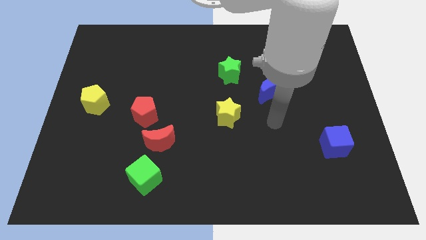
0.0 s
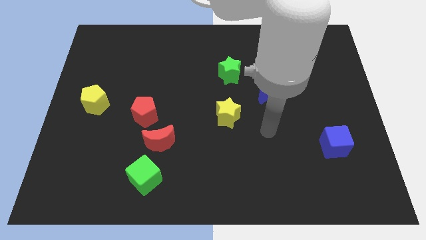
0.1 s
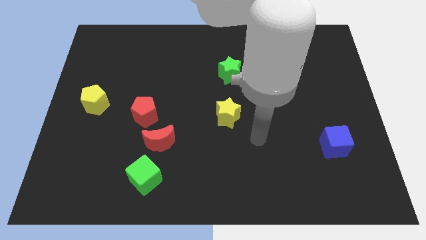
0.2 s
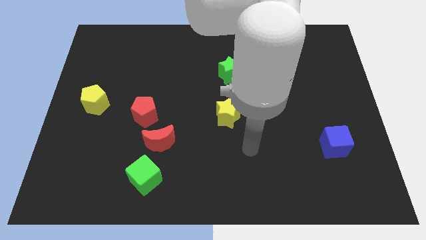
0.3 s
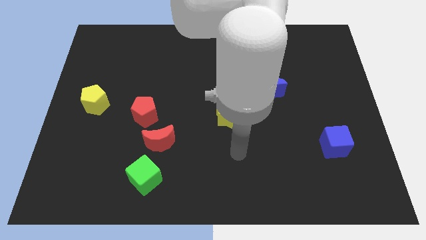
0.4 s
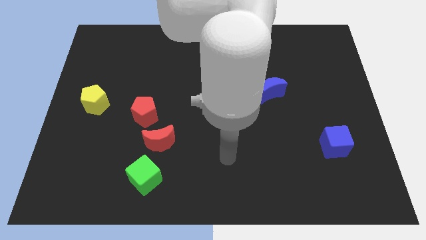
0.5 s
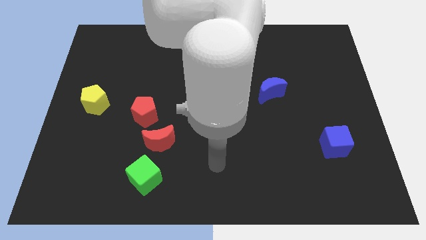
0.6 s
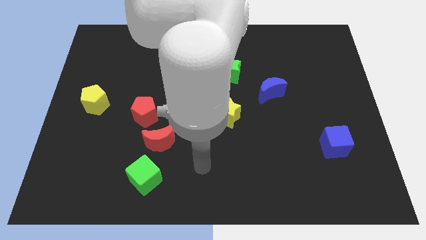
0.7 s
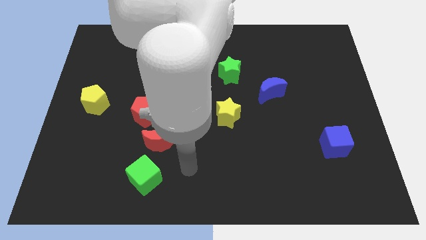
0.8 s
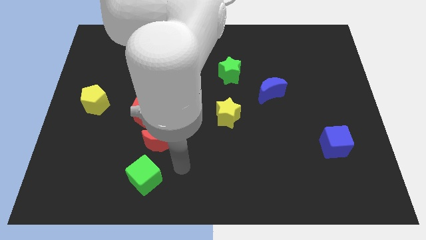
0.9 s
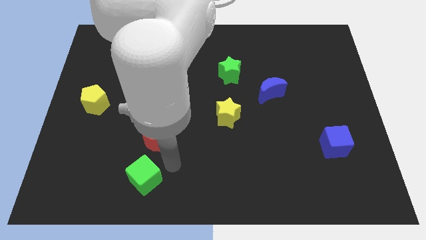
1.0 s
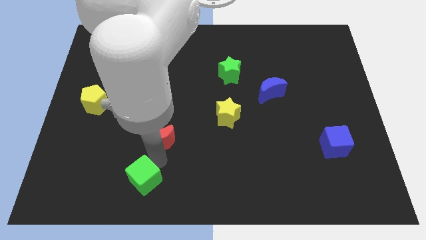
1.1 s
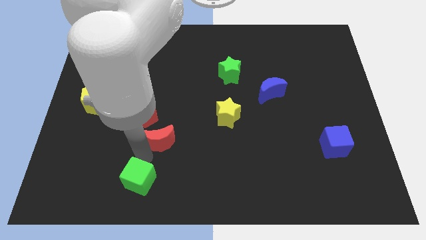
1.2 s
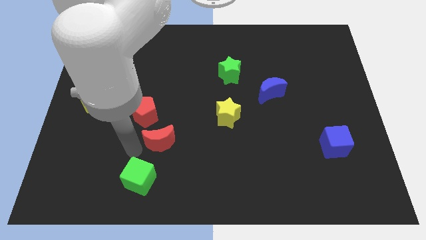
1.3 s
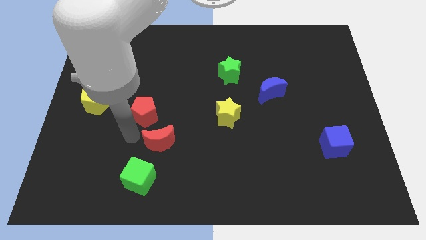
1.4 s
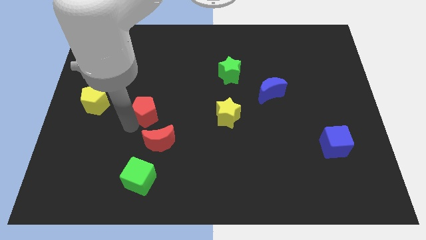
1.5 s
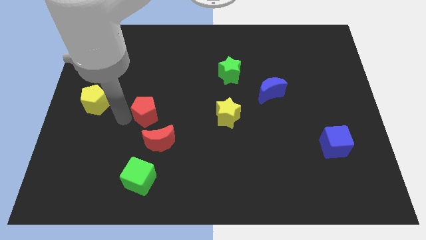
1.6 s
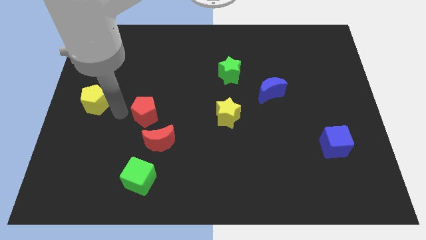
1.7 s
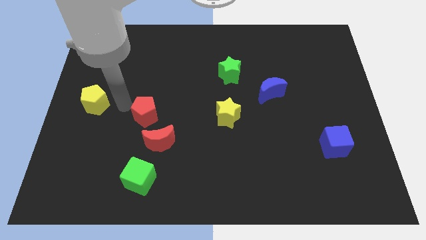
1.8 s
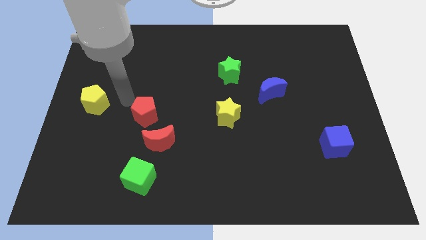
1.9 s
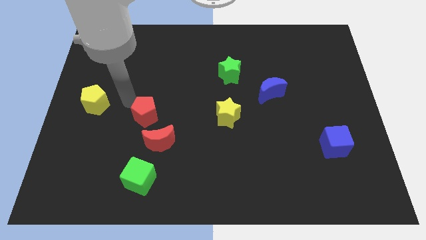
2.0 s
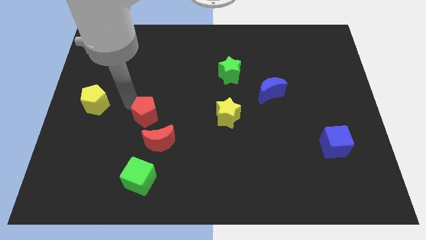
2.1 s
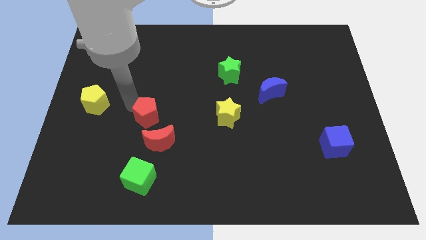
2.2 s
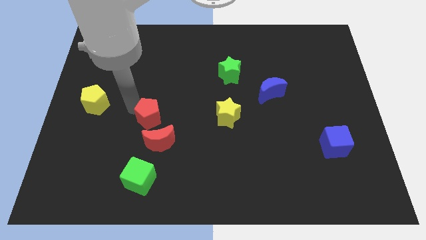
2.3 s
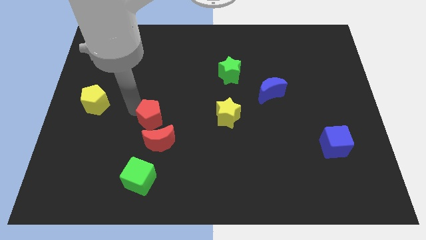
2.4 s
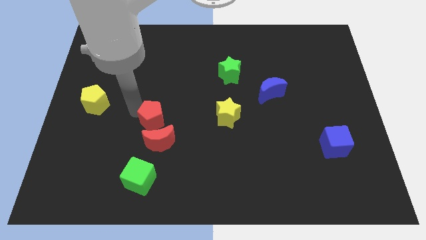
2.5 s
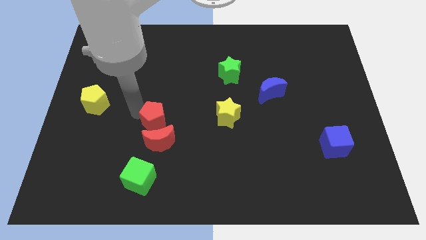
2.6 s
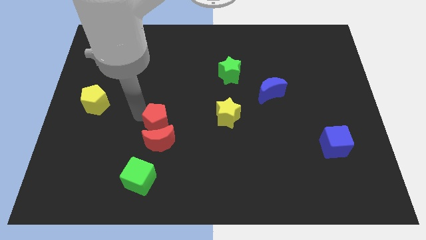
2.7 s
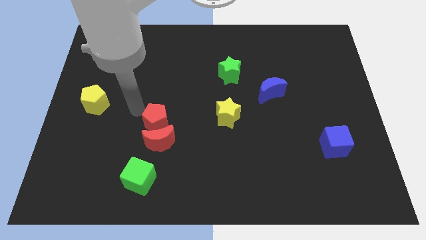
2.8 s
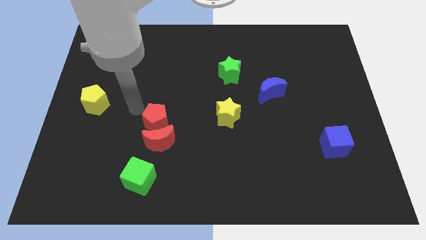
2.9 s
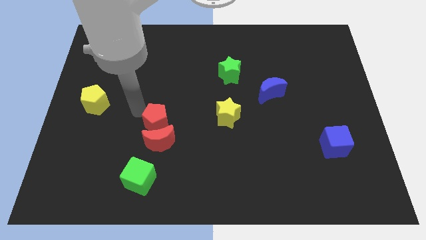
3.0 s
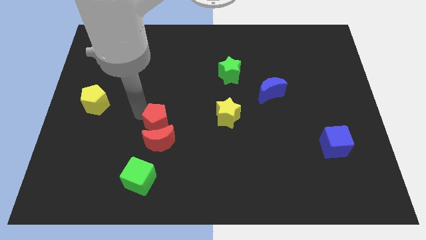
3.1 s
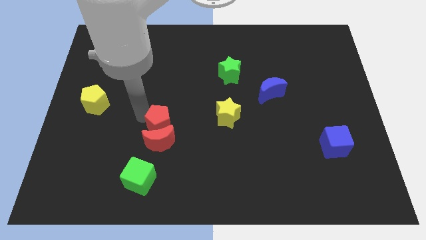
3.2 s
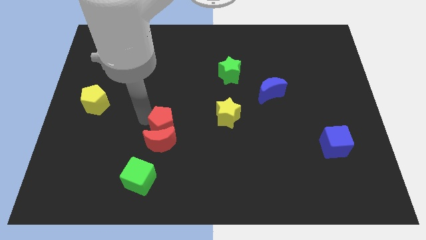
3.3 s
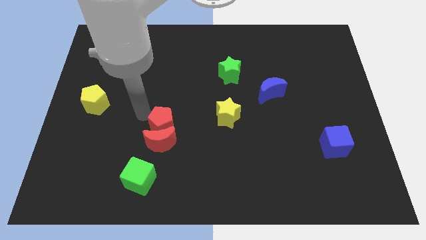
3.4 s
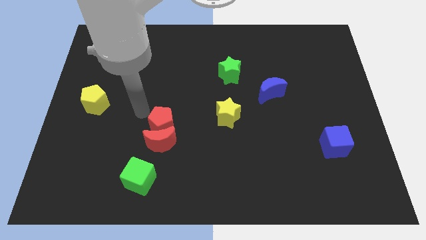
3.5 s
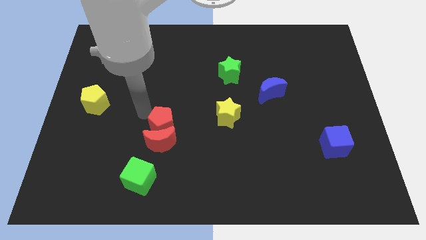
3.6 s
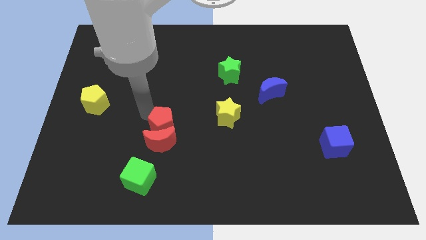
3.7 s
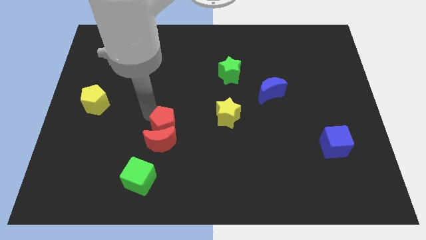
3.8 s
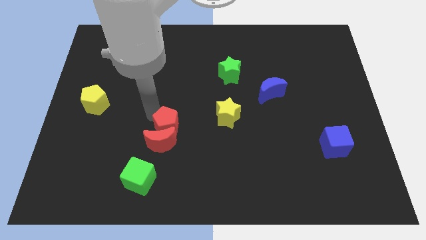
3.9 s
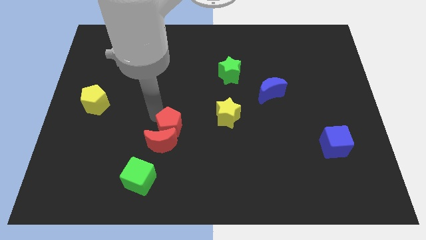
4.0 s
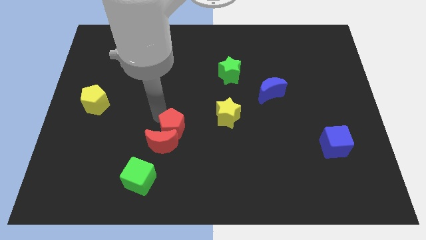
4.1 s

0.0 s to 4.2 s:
slide the red pentagon downwards and right diagonally a bit

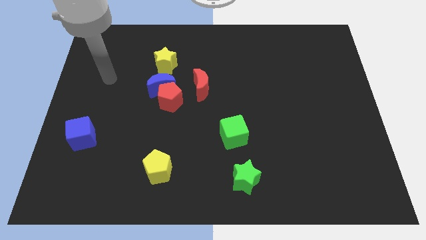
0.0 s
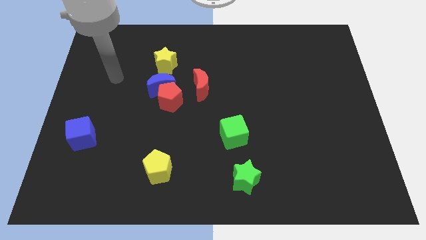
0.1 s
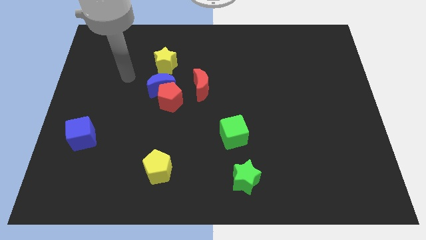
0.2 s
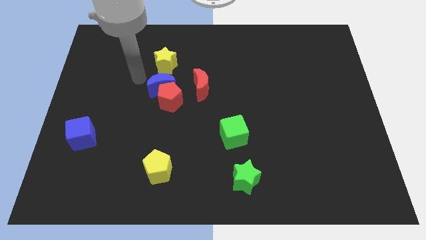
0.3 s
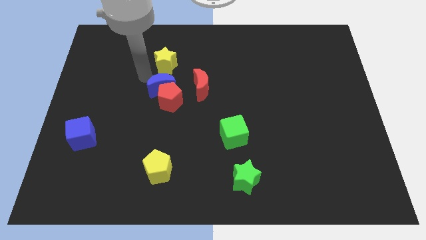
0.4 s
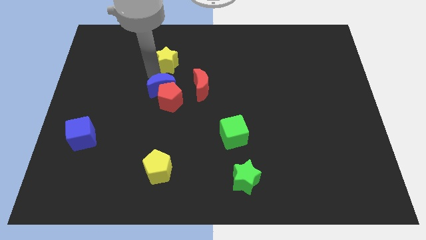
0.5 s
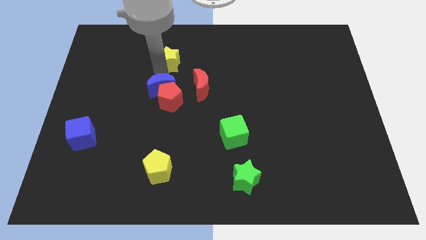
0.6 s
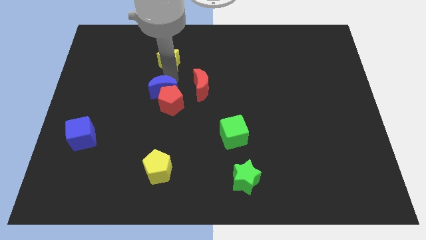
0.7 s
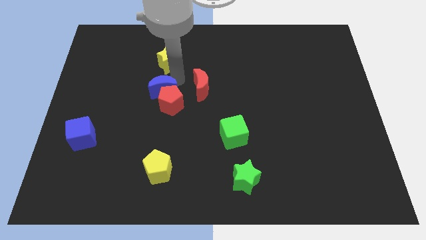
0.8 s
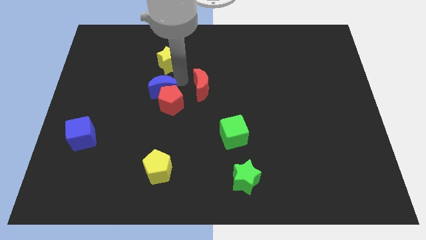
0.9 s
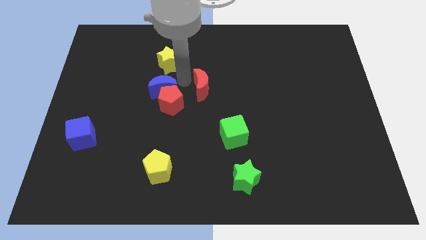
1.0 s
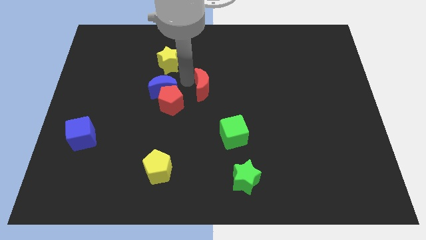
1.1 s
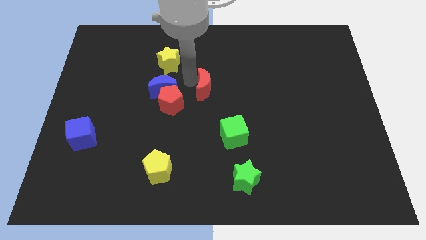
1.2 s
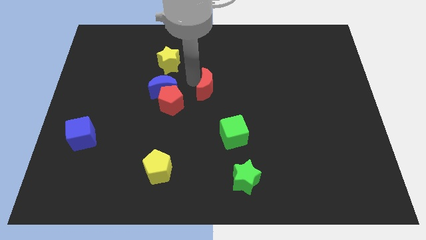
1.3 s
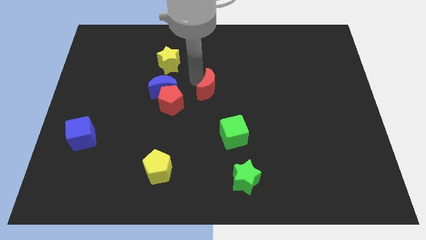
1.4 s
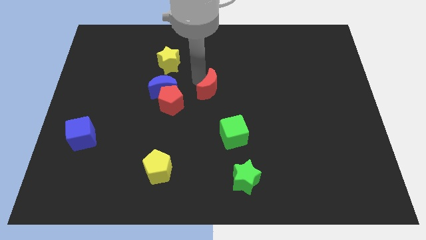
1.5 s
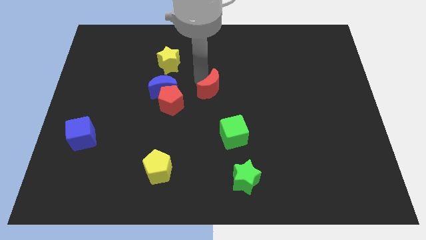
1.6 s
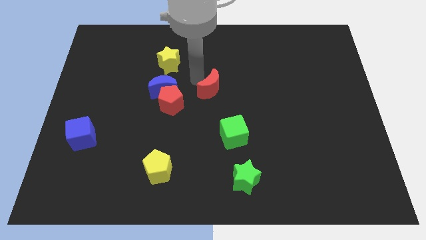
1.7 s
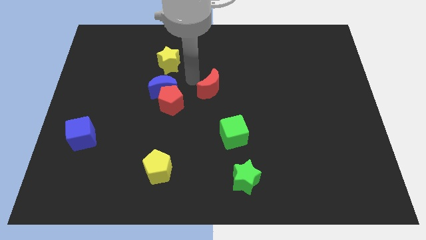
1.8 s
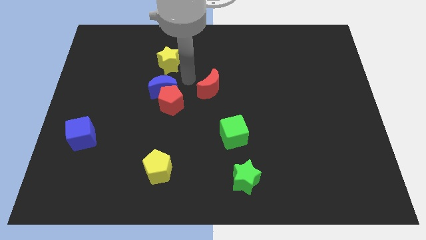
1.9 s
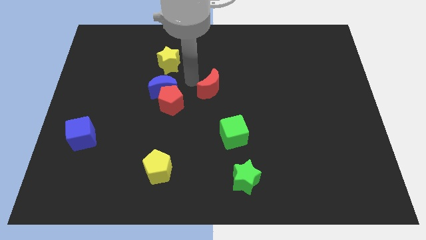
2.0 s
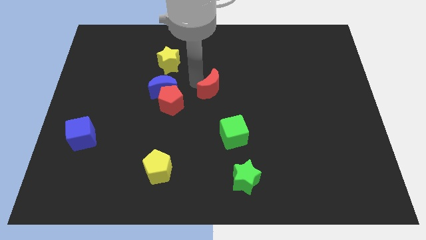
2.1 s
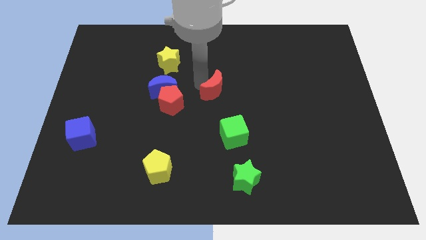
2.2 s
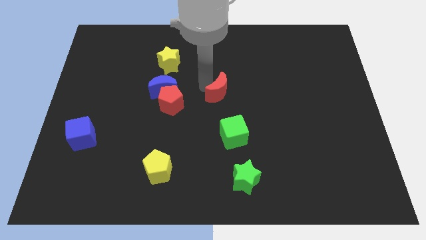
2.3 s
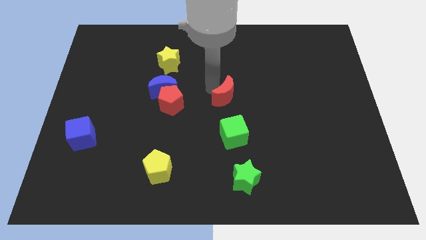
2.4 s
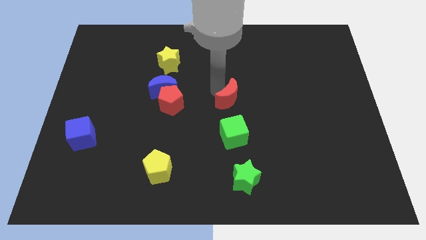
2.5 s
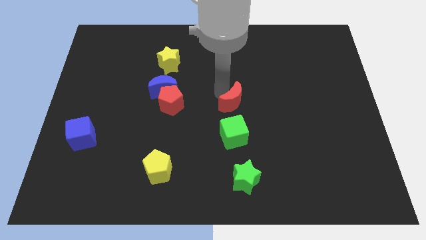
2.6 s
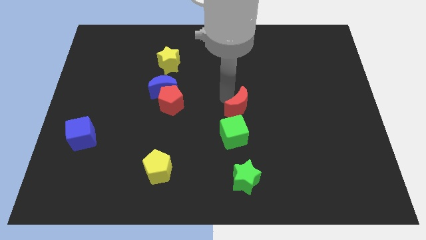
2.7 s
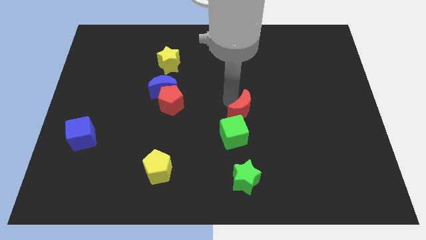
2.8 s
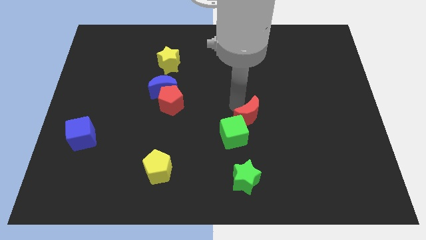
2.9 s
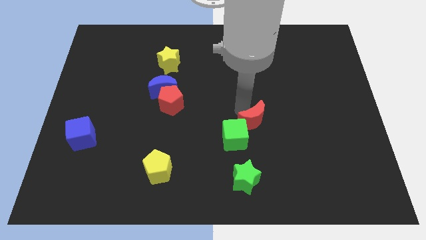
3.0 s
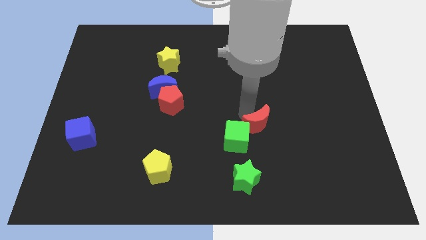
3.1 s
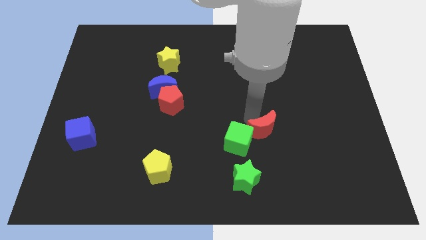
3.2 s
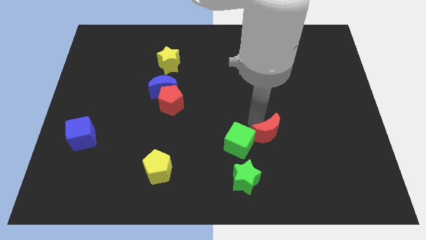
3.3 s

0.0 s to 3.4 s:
push the red moon down and to the right

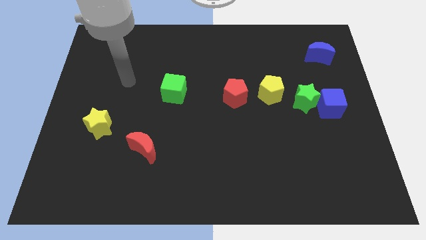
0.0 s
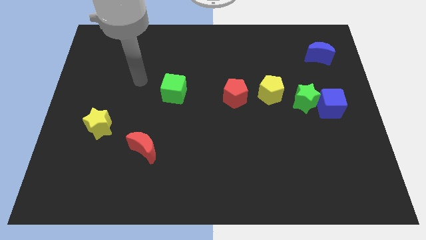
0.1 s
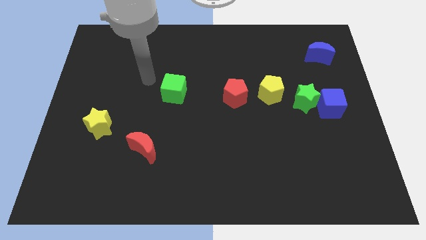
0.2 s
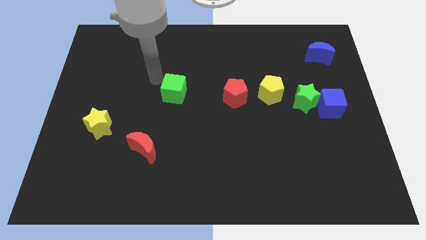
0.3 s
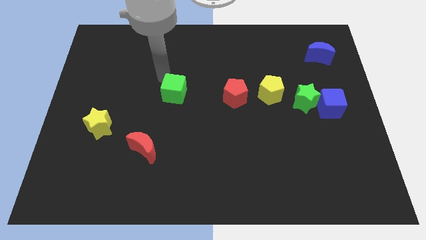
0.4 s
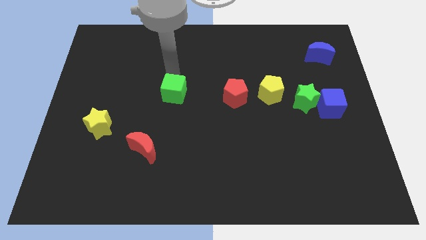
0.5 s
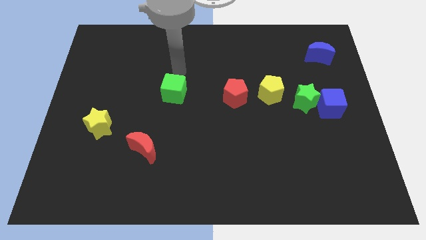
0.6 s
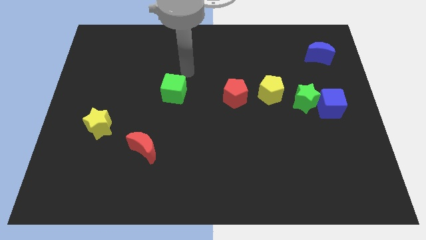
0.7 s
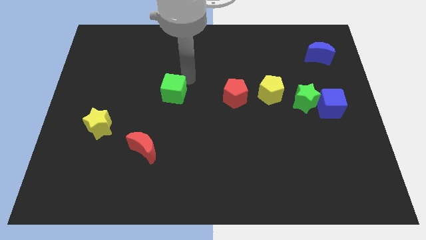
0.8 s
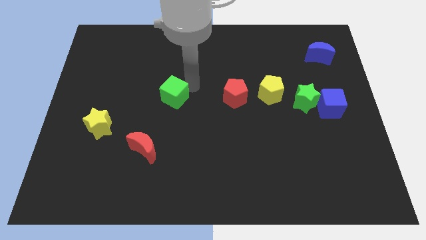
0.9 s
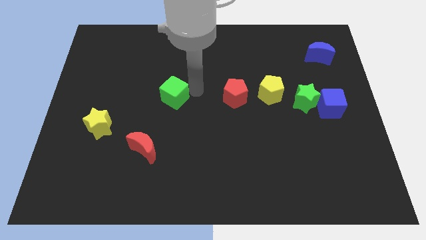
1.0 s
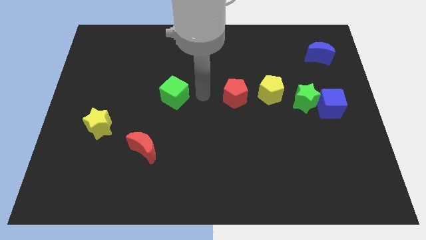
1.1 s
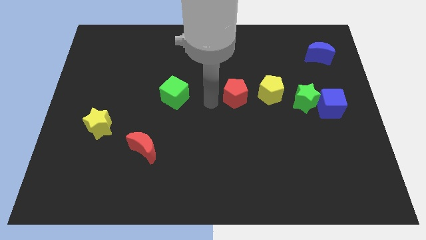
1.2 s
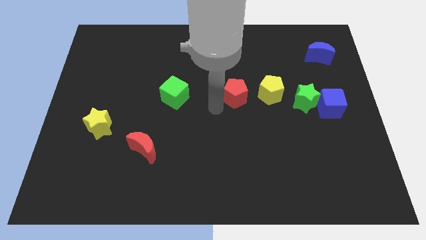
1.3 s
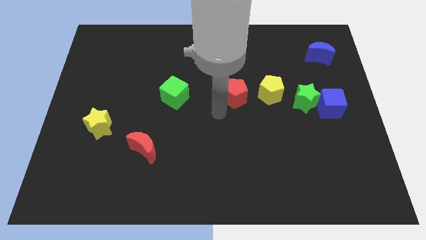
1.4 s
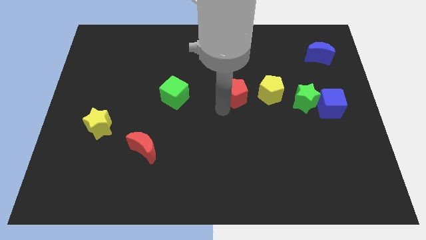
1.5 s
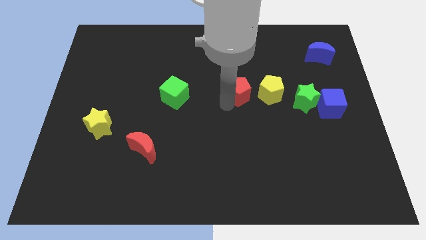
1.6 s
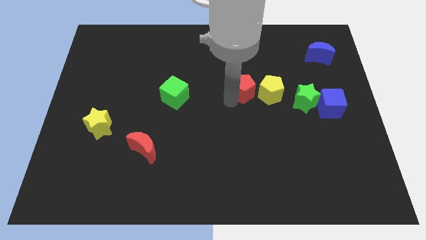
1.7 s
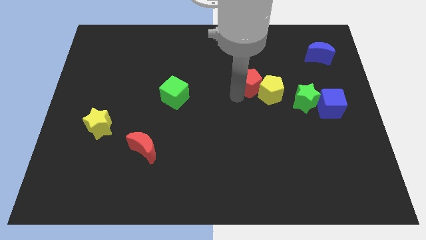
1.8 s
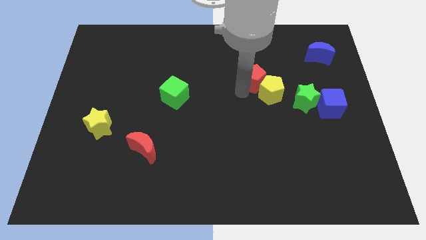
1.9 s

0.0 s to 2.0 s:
push the red pentagon a bit upwards and then right
